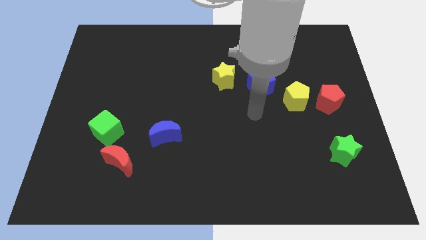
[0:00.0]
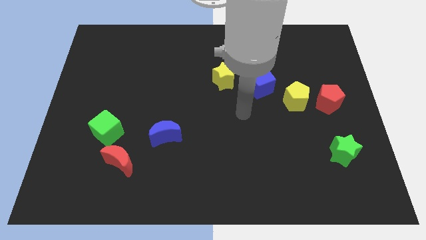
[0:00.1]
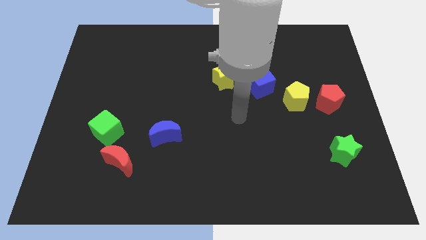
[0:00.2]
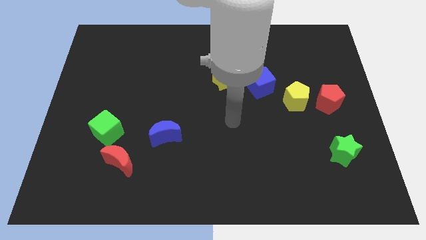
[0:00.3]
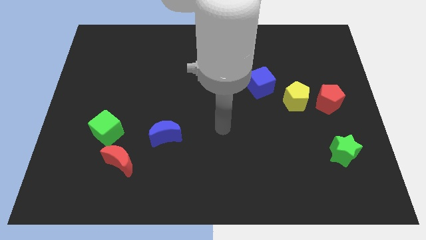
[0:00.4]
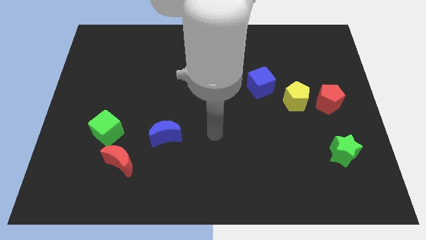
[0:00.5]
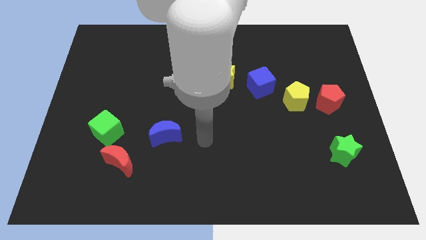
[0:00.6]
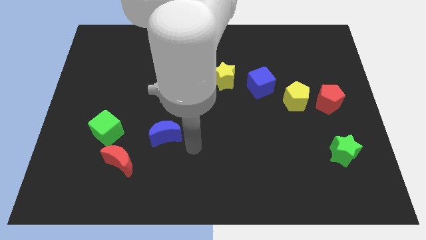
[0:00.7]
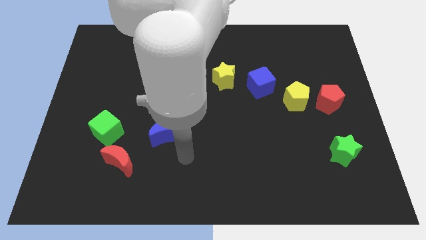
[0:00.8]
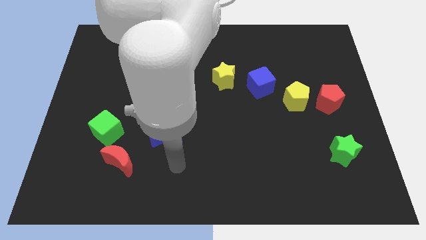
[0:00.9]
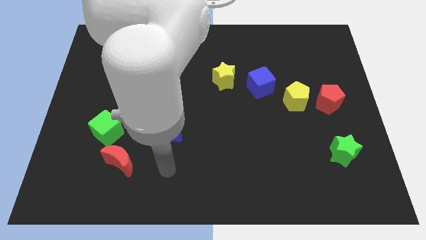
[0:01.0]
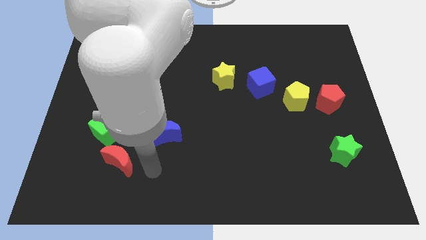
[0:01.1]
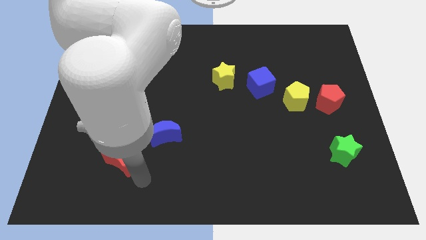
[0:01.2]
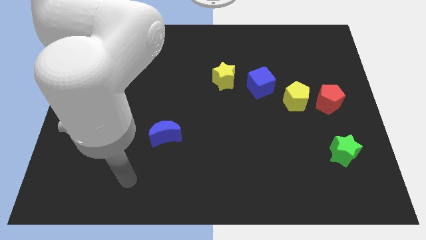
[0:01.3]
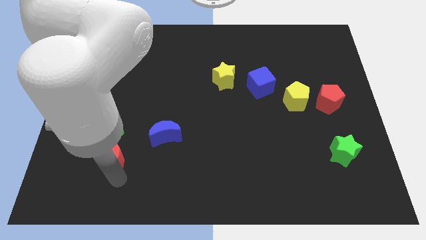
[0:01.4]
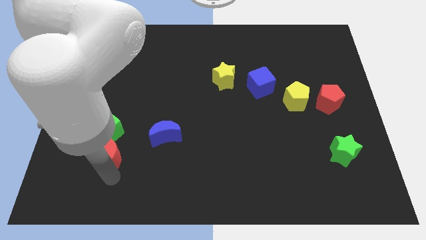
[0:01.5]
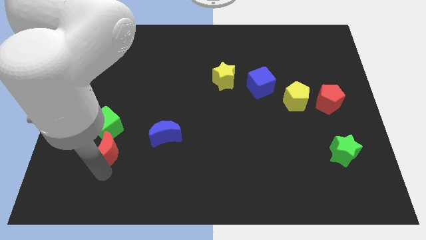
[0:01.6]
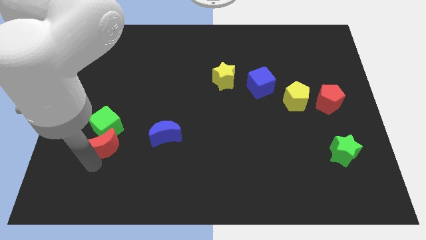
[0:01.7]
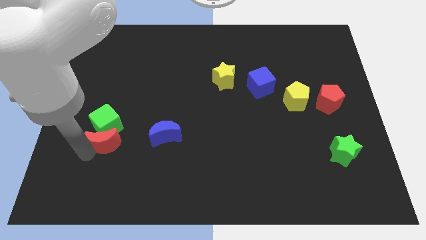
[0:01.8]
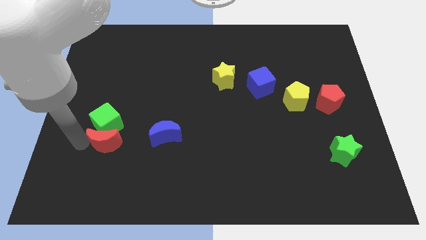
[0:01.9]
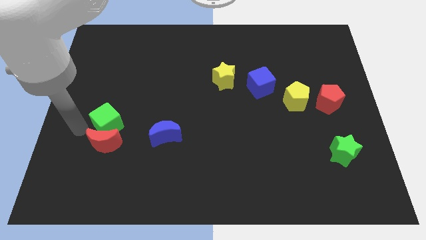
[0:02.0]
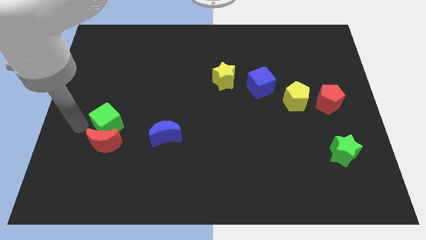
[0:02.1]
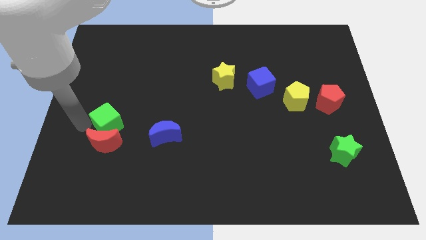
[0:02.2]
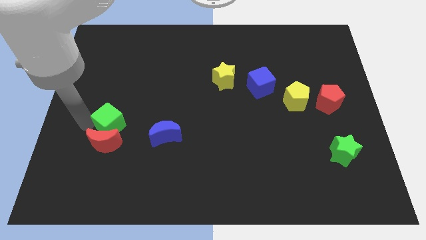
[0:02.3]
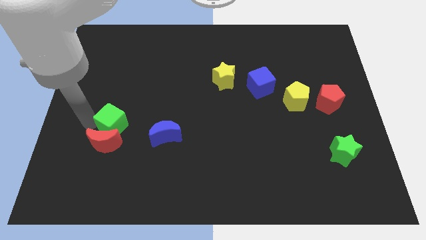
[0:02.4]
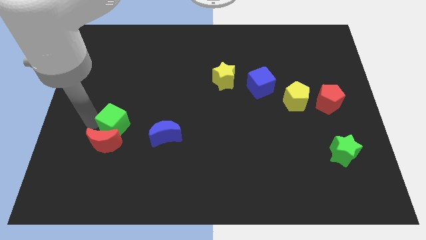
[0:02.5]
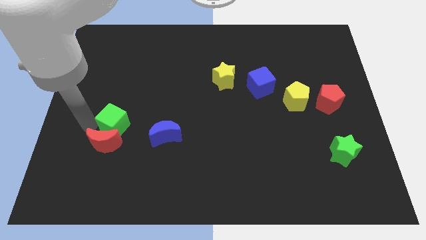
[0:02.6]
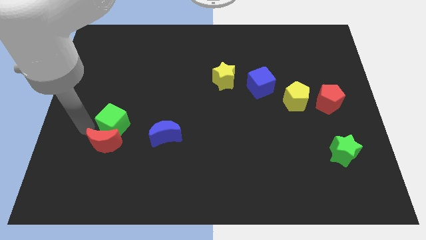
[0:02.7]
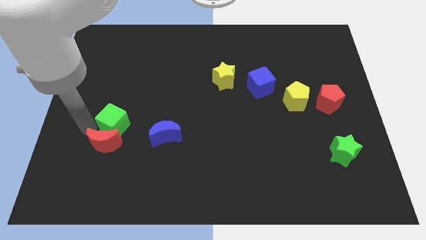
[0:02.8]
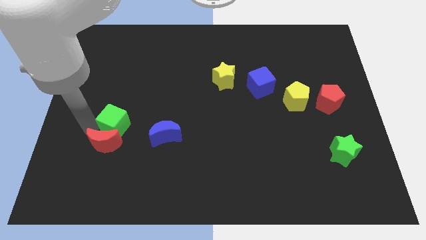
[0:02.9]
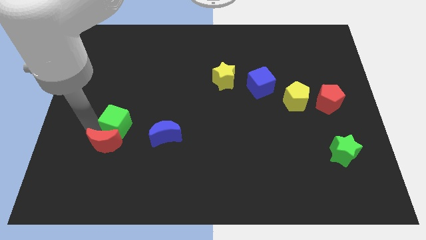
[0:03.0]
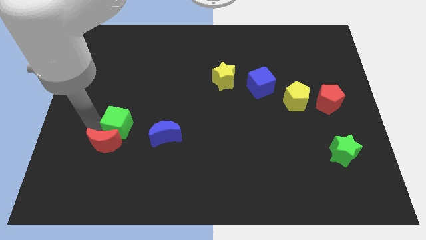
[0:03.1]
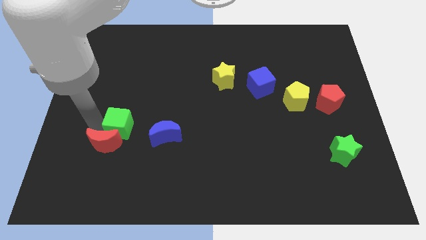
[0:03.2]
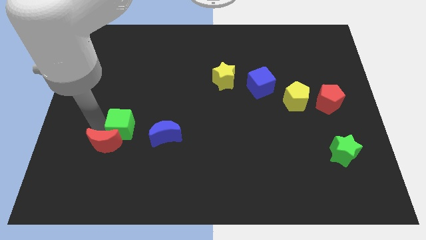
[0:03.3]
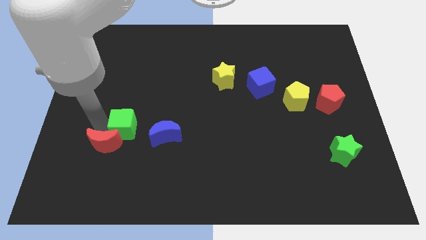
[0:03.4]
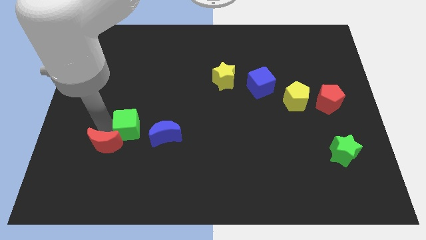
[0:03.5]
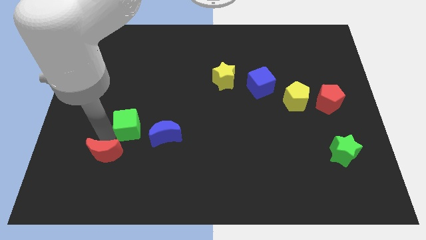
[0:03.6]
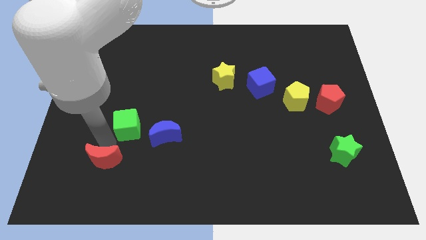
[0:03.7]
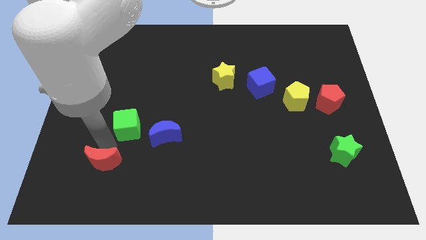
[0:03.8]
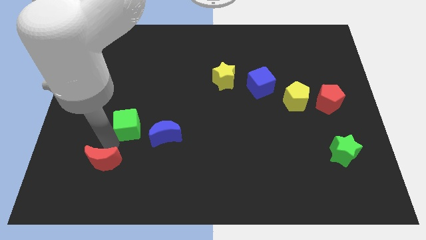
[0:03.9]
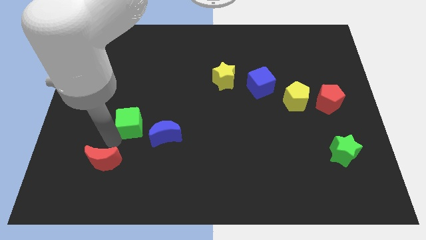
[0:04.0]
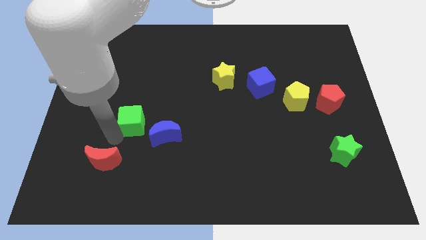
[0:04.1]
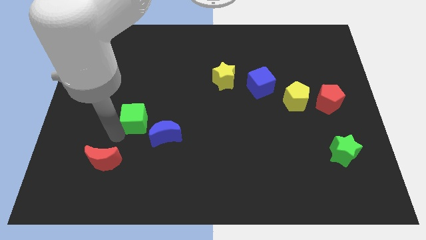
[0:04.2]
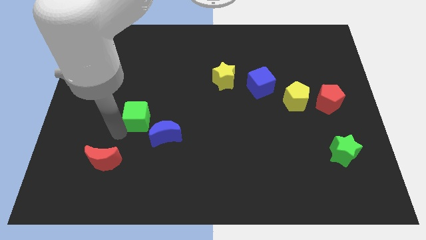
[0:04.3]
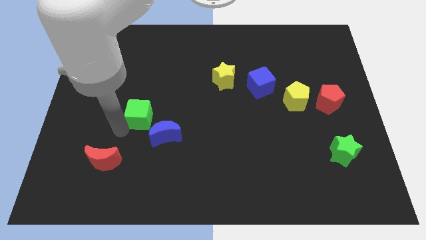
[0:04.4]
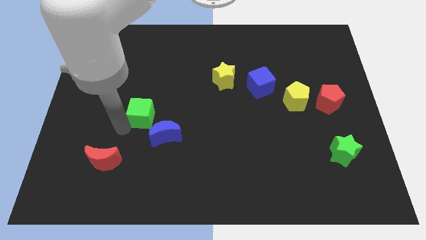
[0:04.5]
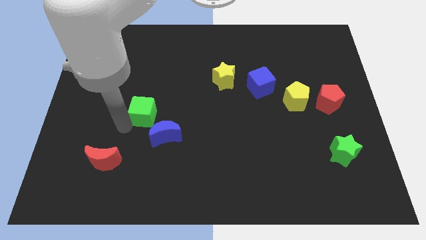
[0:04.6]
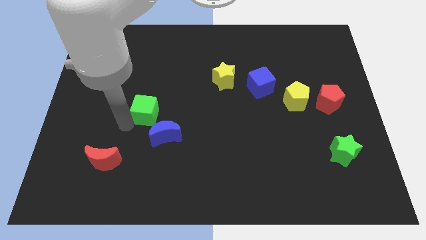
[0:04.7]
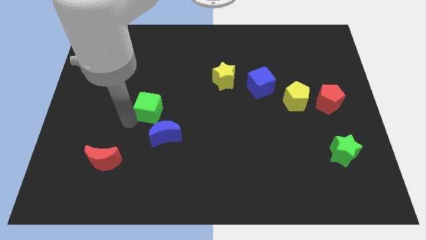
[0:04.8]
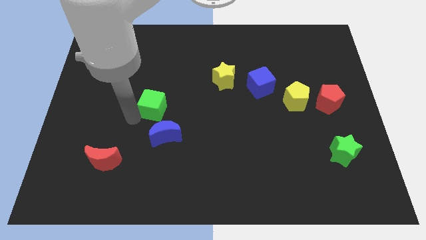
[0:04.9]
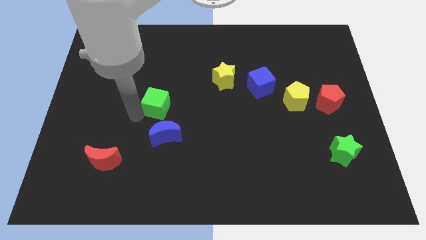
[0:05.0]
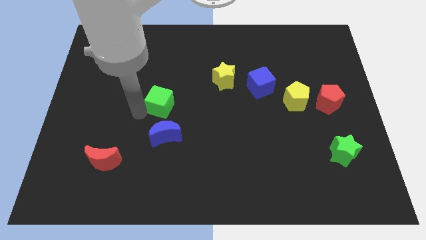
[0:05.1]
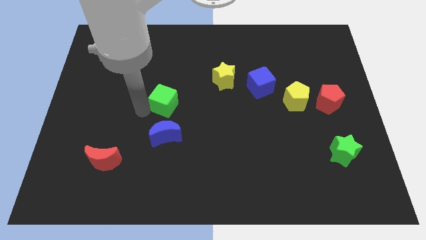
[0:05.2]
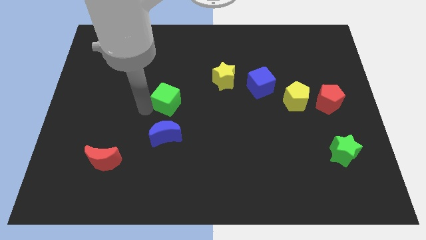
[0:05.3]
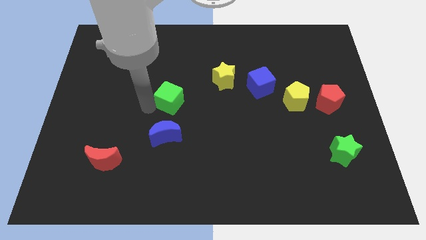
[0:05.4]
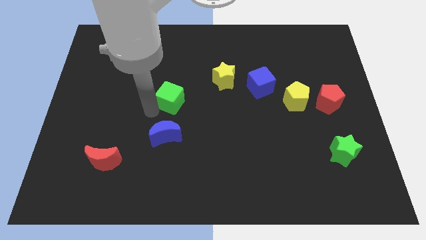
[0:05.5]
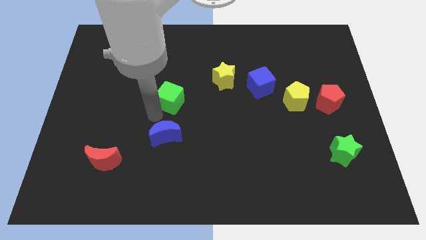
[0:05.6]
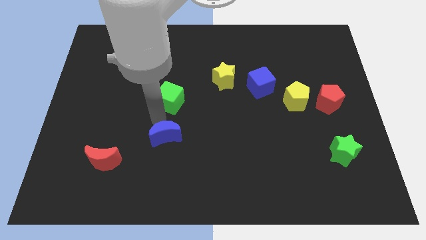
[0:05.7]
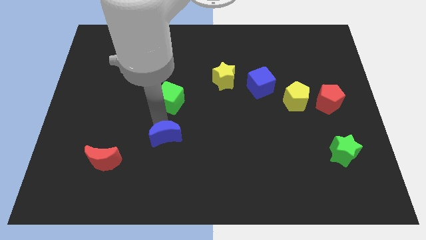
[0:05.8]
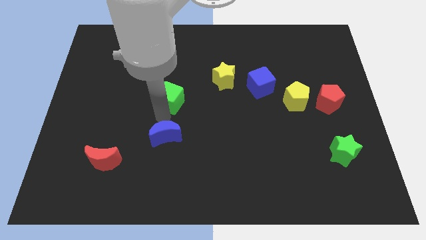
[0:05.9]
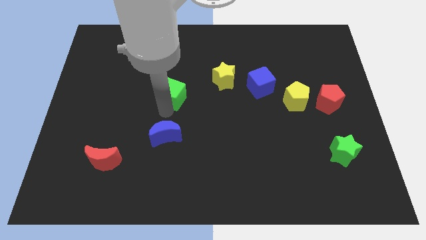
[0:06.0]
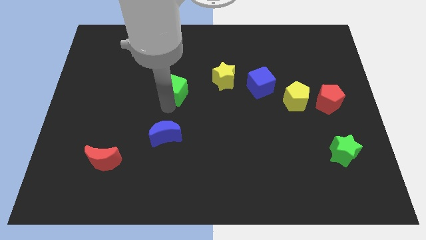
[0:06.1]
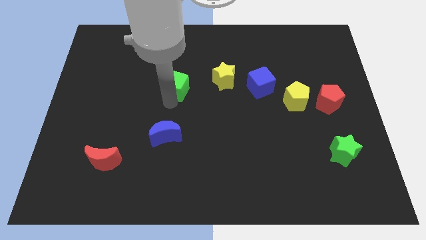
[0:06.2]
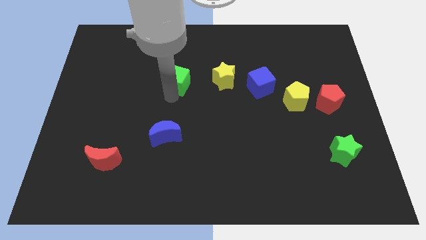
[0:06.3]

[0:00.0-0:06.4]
slide the green cube upwards and then right

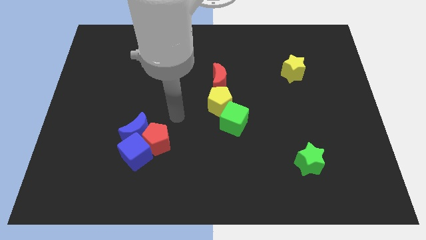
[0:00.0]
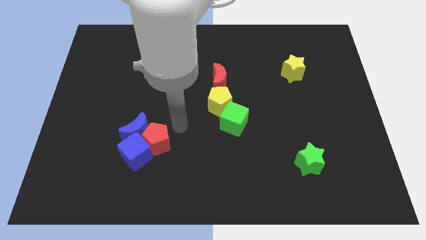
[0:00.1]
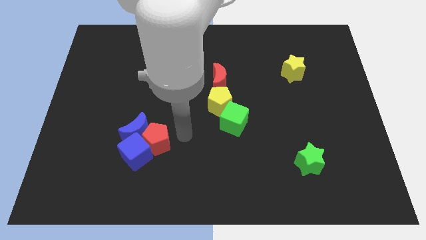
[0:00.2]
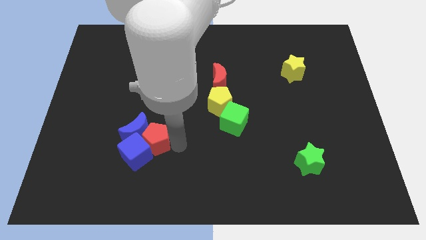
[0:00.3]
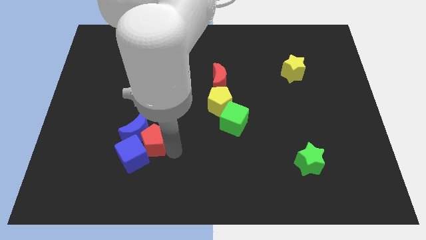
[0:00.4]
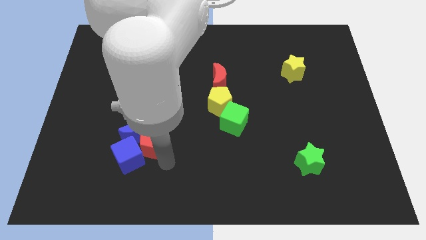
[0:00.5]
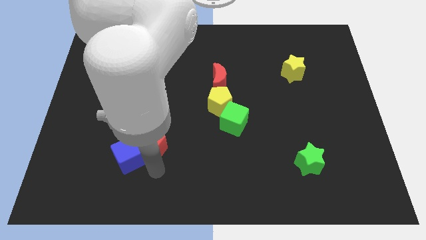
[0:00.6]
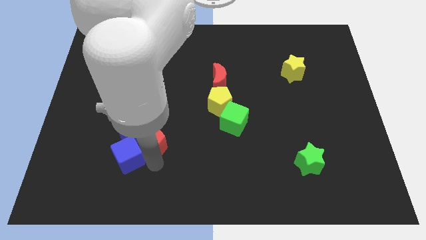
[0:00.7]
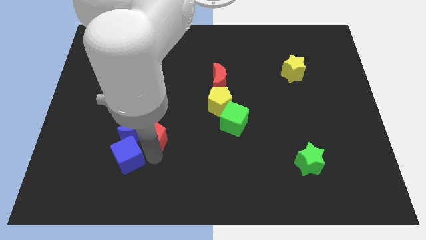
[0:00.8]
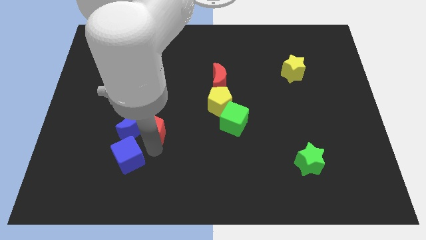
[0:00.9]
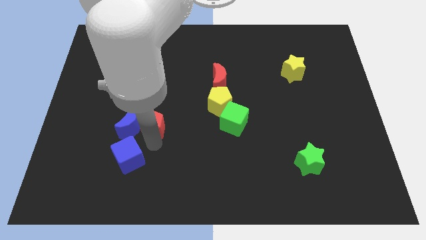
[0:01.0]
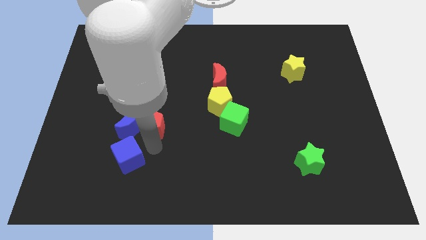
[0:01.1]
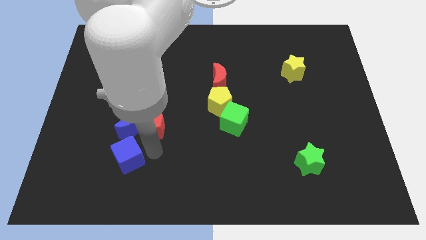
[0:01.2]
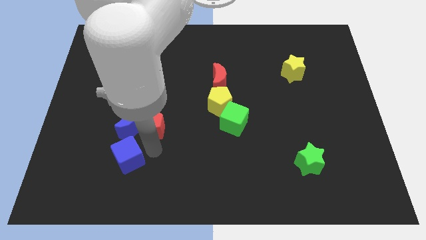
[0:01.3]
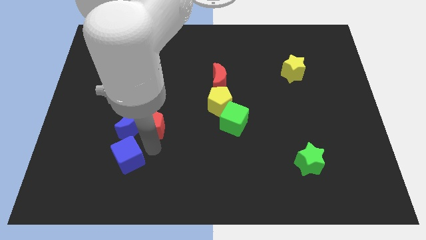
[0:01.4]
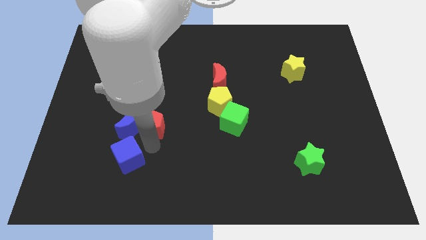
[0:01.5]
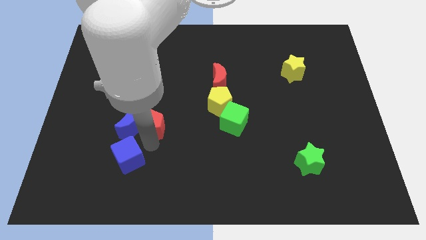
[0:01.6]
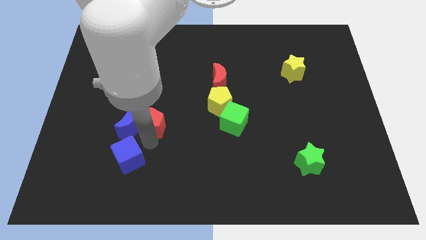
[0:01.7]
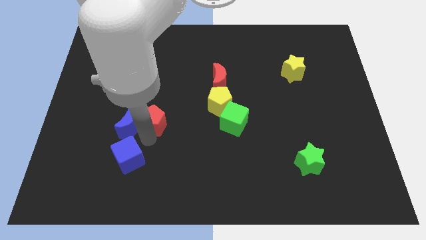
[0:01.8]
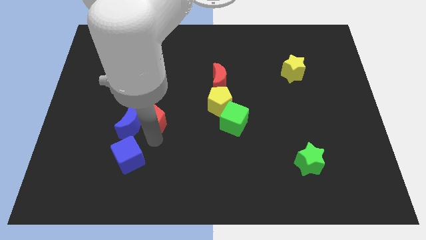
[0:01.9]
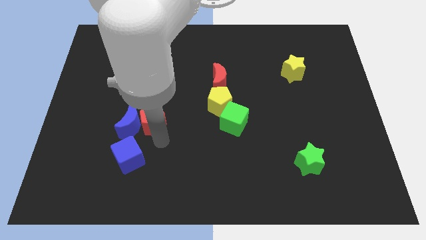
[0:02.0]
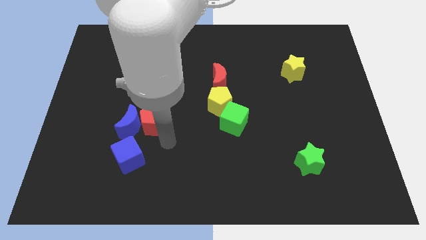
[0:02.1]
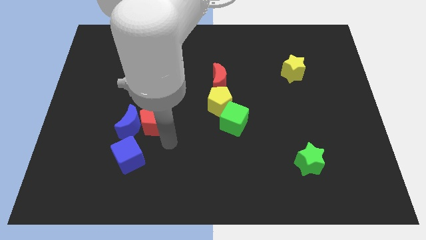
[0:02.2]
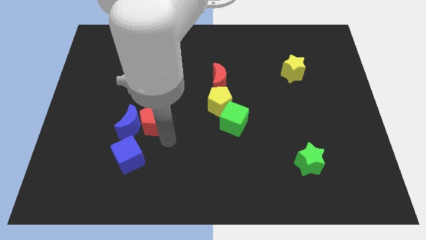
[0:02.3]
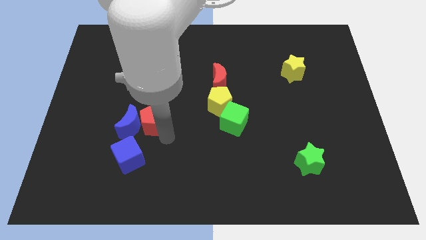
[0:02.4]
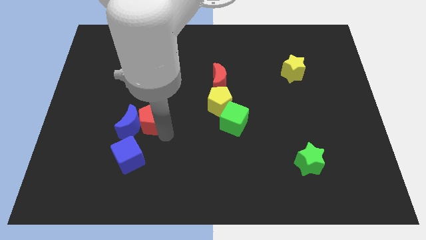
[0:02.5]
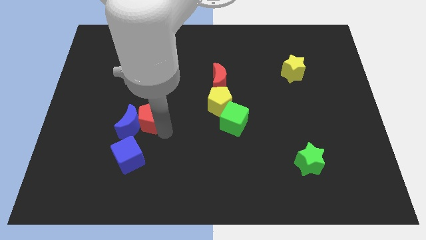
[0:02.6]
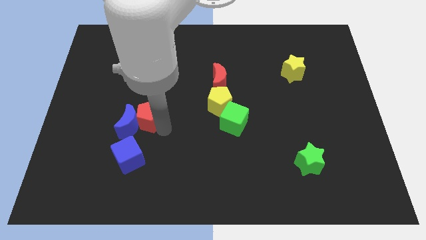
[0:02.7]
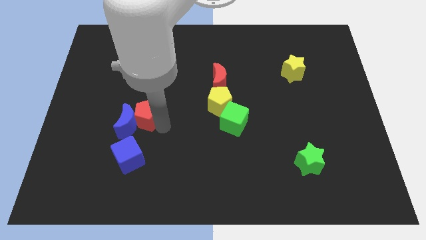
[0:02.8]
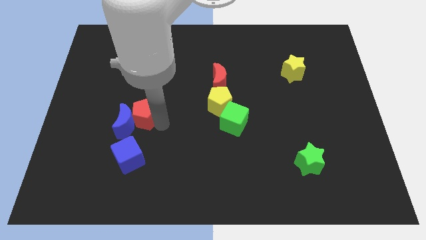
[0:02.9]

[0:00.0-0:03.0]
push the red pentagon a little bit upwards and then to the left
